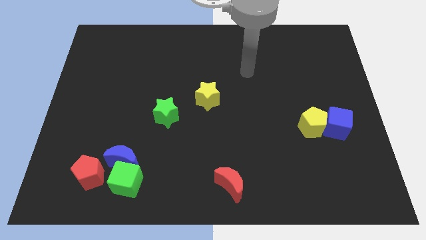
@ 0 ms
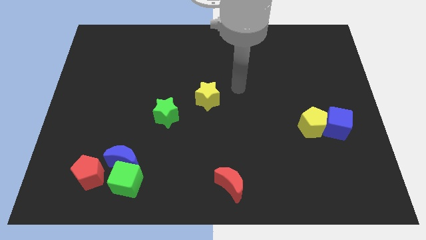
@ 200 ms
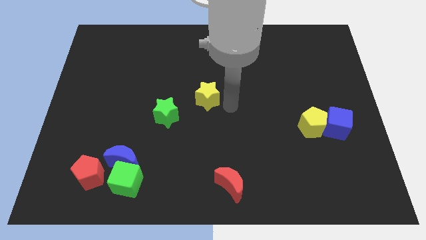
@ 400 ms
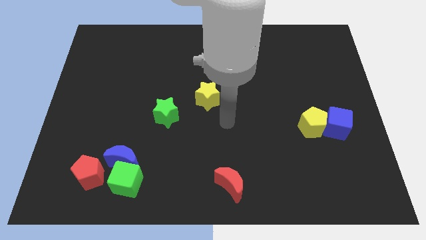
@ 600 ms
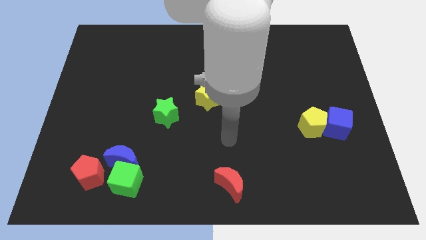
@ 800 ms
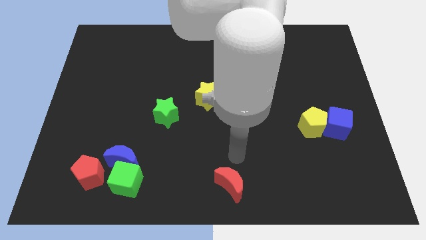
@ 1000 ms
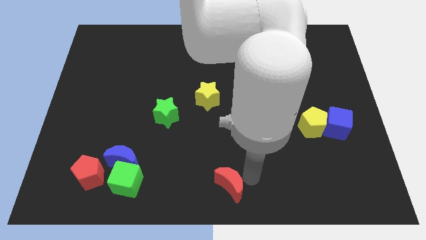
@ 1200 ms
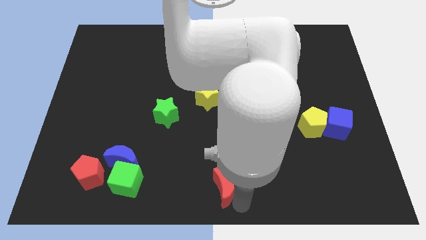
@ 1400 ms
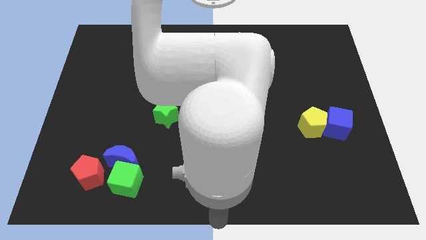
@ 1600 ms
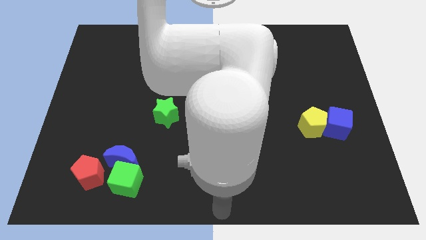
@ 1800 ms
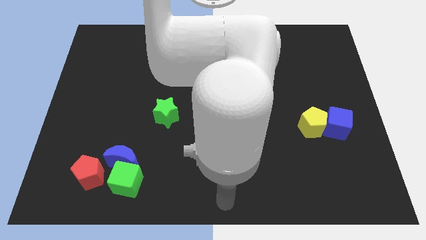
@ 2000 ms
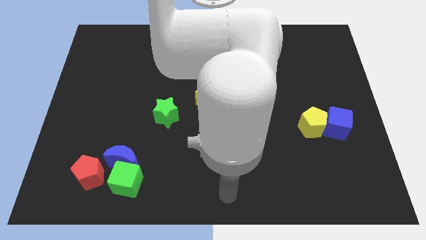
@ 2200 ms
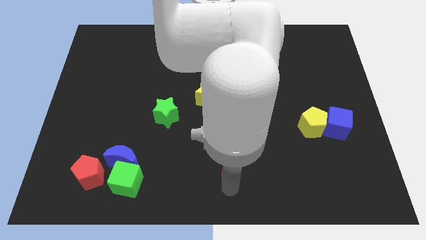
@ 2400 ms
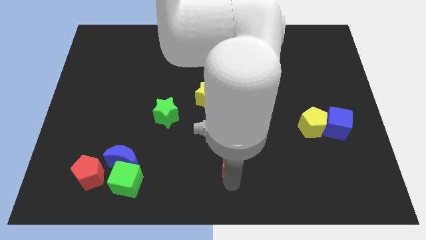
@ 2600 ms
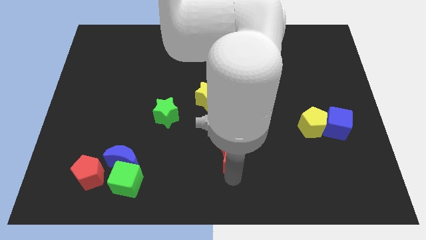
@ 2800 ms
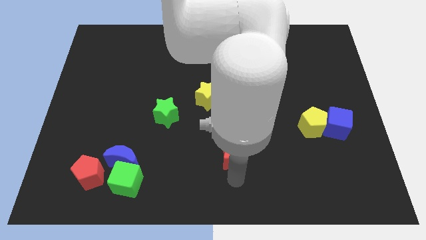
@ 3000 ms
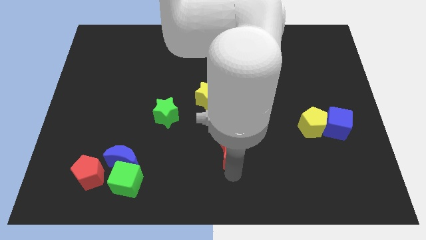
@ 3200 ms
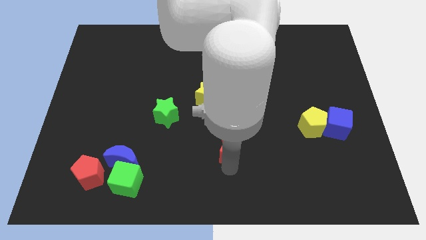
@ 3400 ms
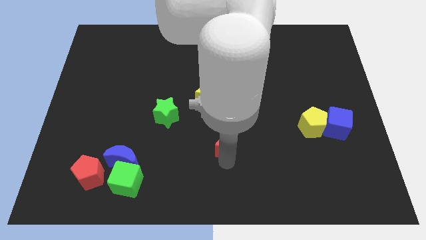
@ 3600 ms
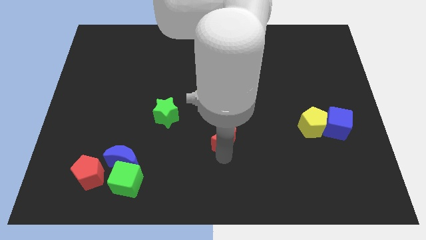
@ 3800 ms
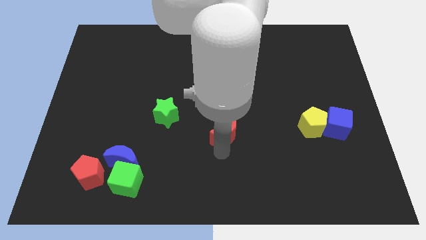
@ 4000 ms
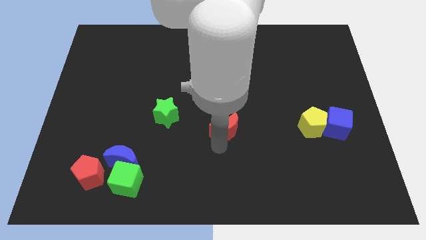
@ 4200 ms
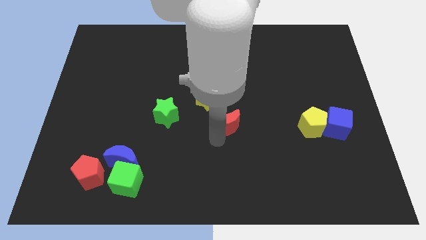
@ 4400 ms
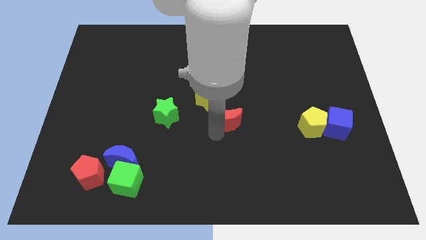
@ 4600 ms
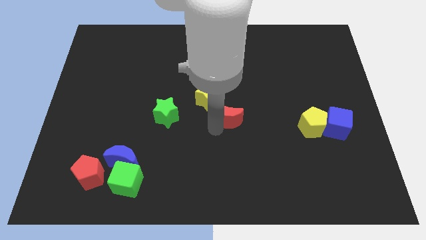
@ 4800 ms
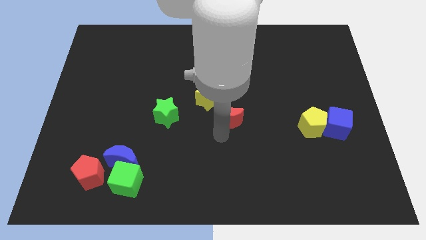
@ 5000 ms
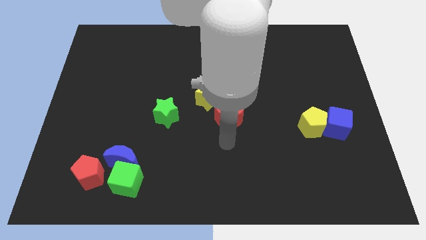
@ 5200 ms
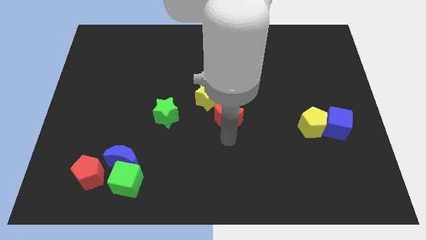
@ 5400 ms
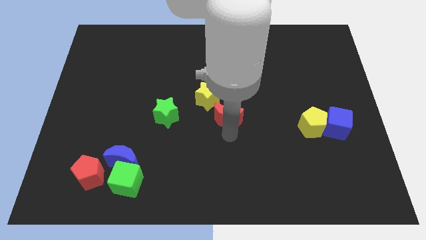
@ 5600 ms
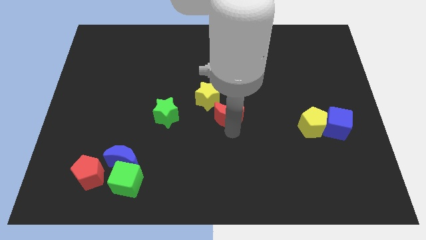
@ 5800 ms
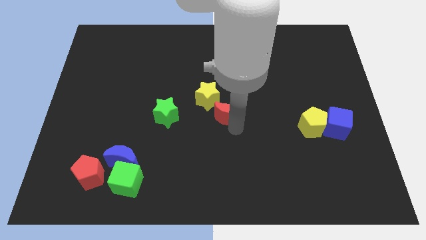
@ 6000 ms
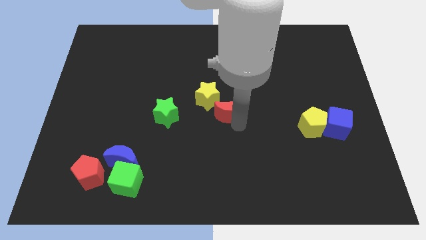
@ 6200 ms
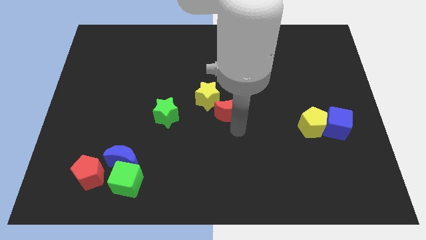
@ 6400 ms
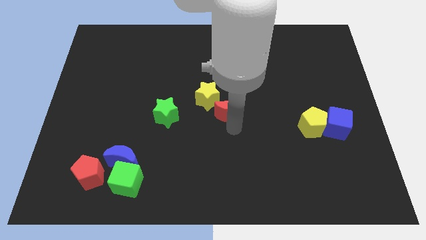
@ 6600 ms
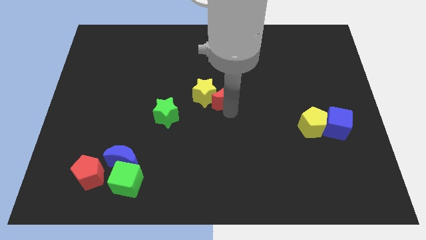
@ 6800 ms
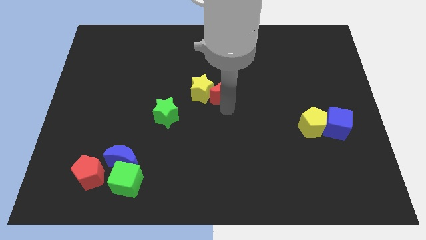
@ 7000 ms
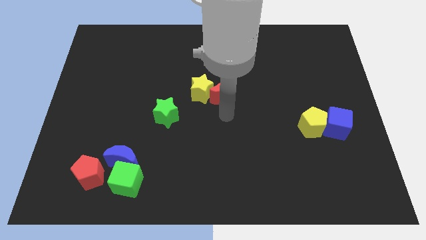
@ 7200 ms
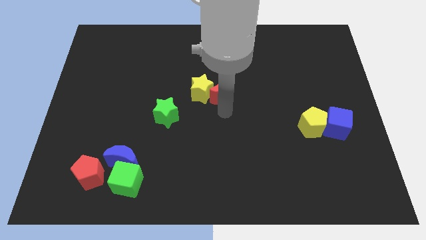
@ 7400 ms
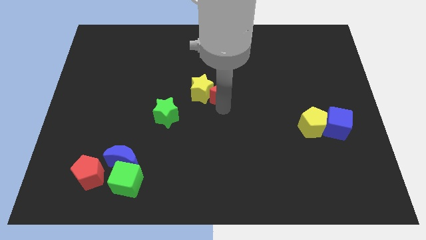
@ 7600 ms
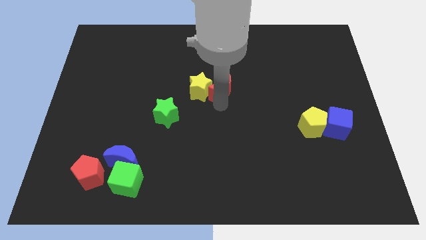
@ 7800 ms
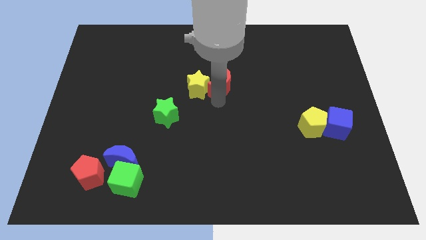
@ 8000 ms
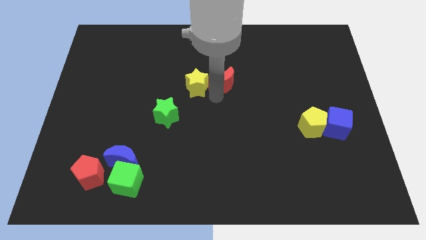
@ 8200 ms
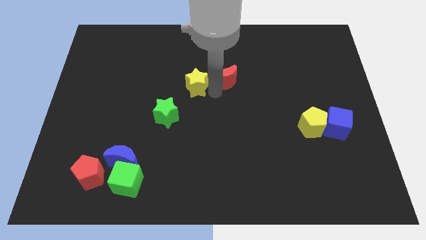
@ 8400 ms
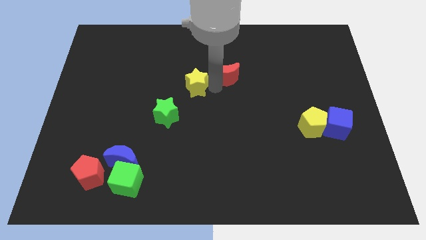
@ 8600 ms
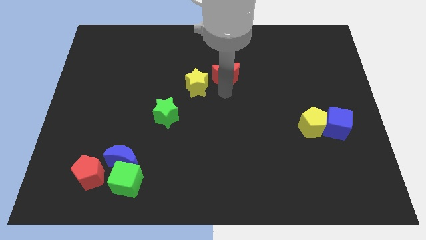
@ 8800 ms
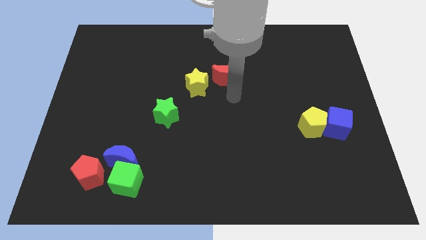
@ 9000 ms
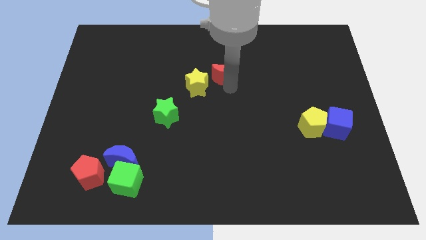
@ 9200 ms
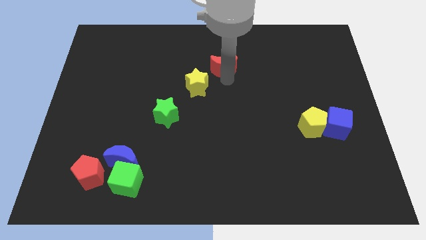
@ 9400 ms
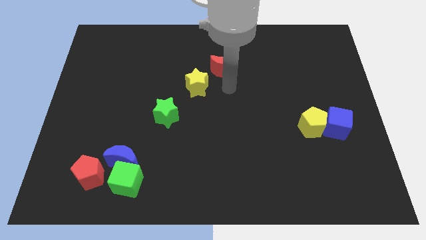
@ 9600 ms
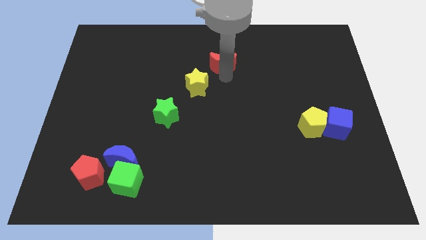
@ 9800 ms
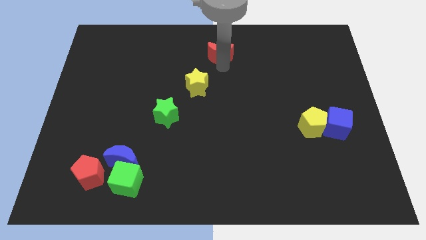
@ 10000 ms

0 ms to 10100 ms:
put the red moon to the towards your base
